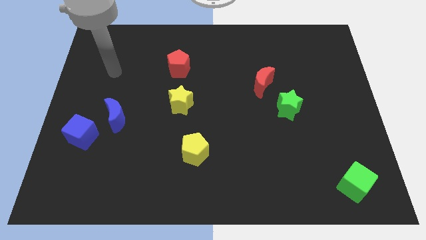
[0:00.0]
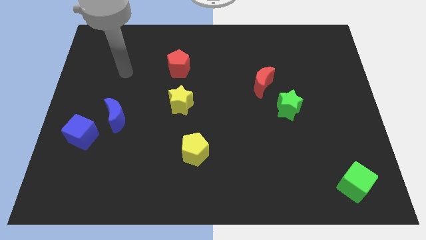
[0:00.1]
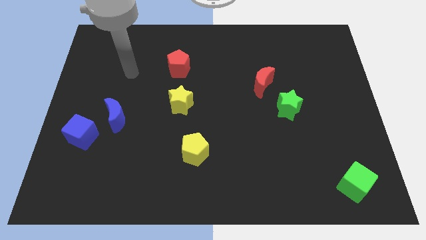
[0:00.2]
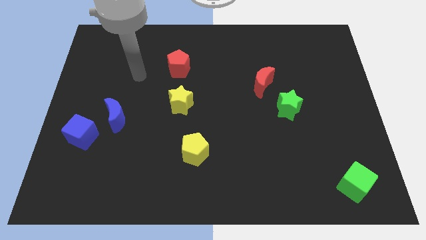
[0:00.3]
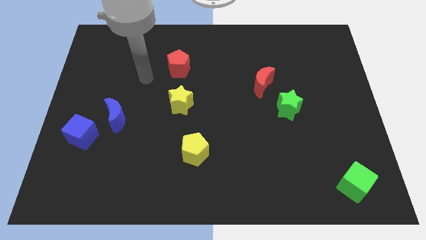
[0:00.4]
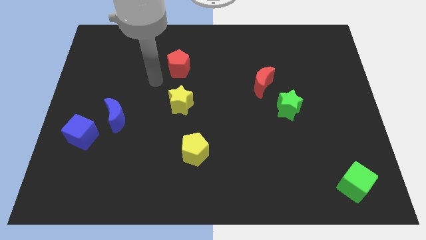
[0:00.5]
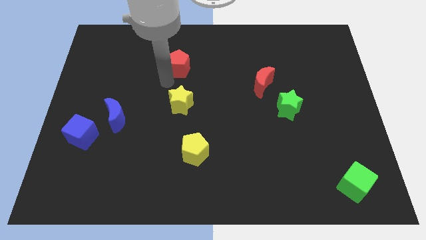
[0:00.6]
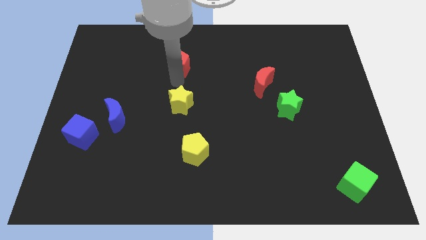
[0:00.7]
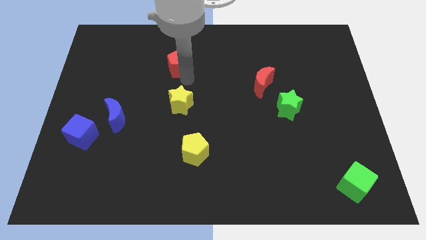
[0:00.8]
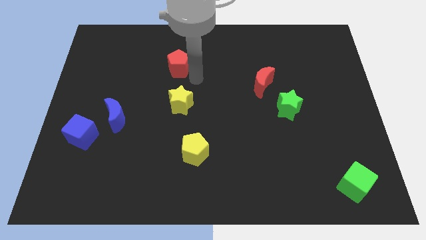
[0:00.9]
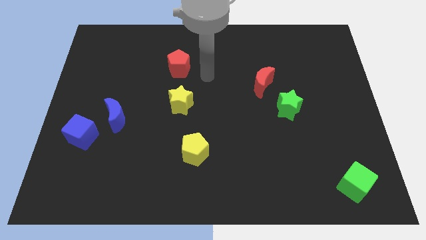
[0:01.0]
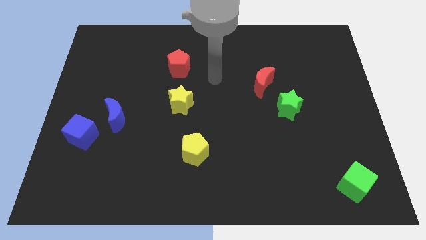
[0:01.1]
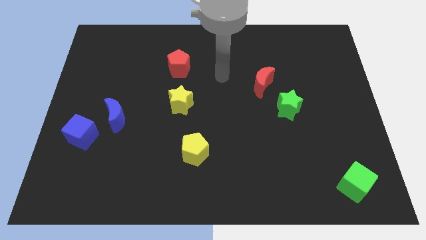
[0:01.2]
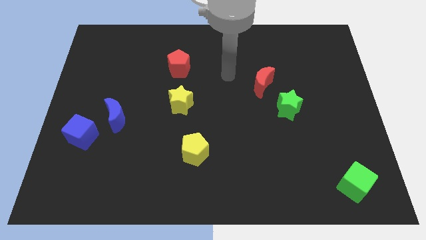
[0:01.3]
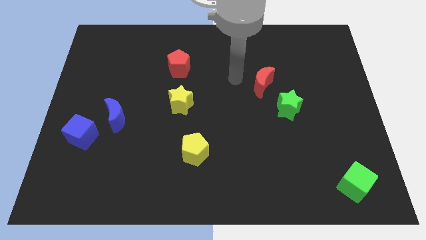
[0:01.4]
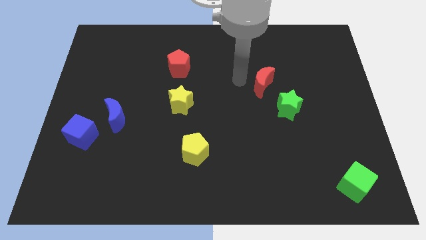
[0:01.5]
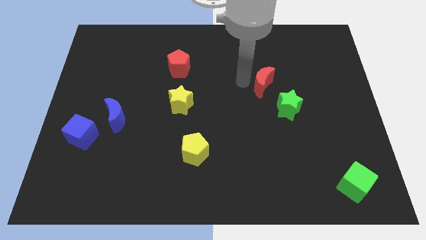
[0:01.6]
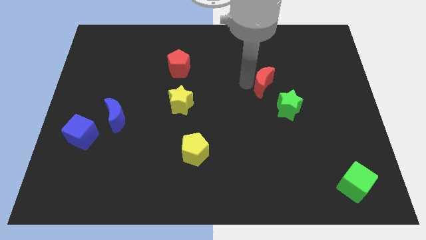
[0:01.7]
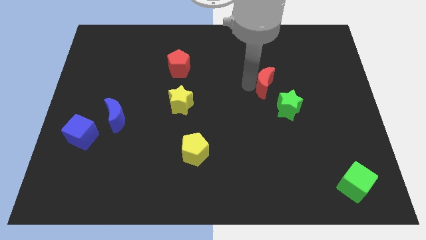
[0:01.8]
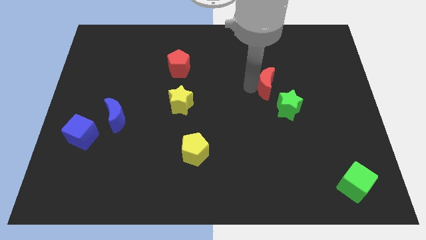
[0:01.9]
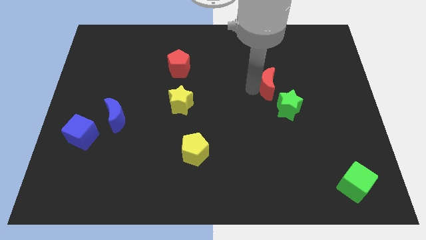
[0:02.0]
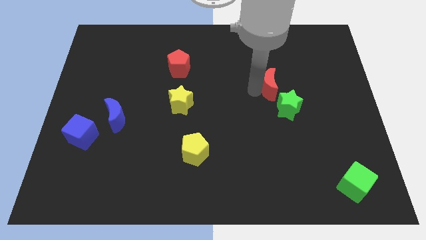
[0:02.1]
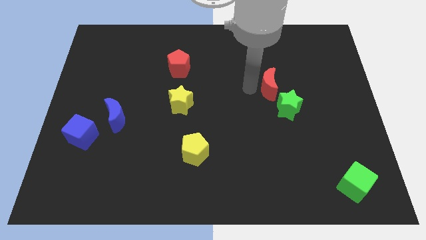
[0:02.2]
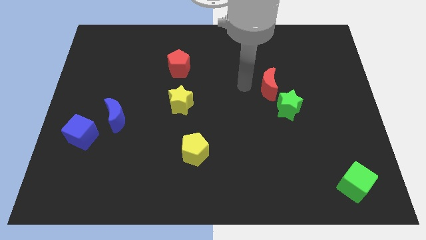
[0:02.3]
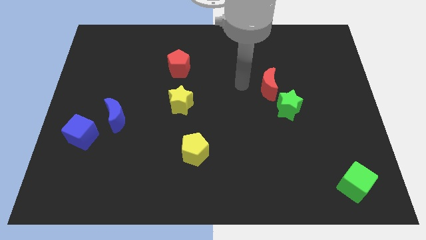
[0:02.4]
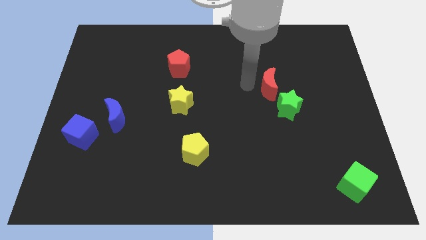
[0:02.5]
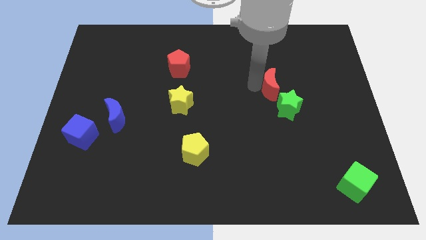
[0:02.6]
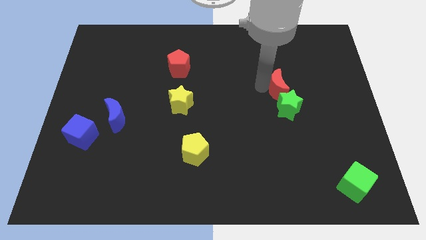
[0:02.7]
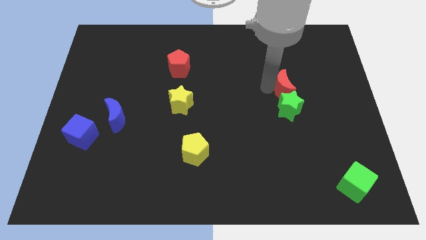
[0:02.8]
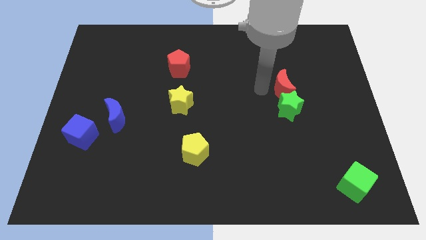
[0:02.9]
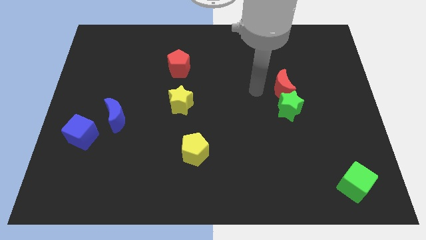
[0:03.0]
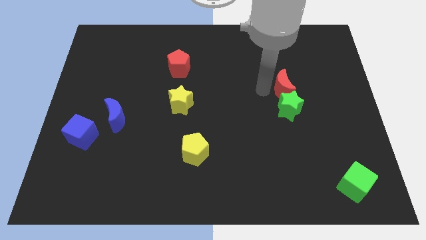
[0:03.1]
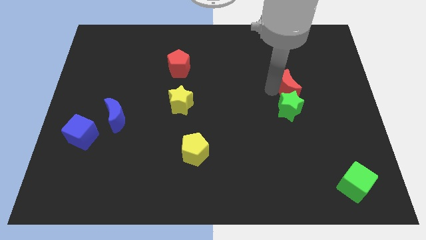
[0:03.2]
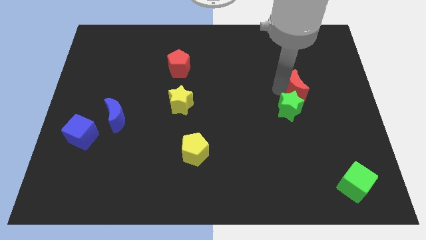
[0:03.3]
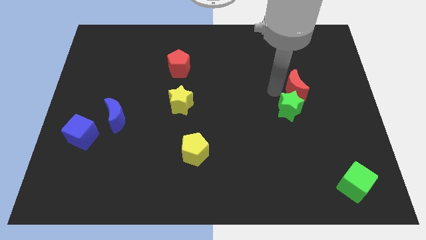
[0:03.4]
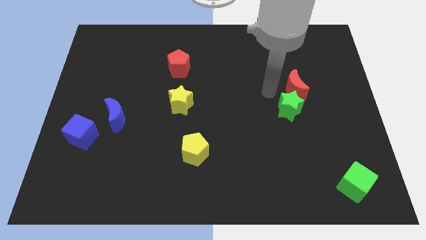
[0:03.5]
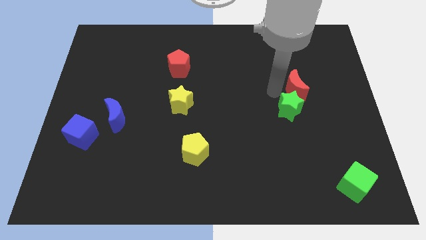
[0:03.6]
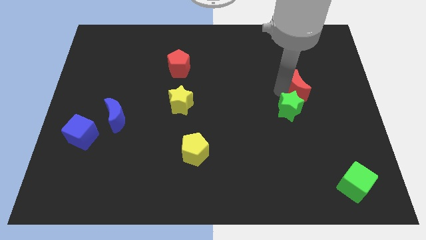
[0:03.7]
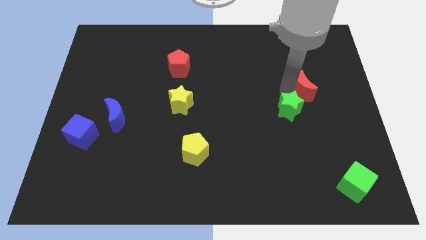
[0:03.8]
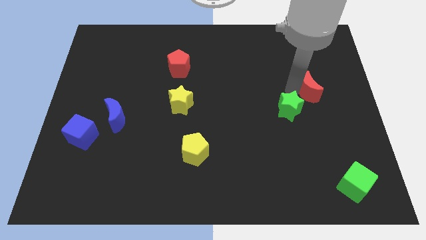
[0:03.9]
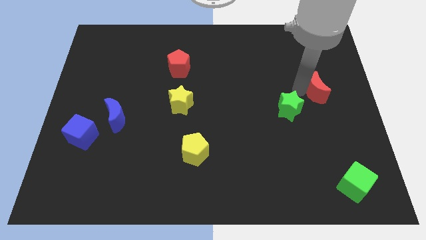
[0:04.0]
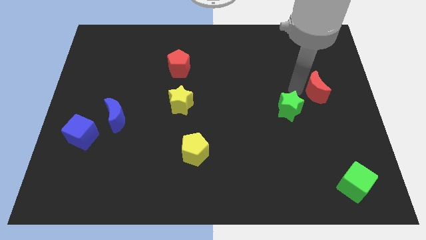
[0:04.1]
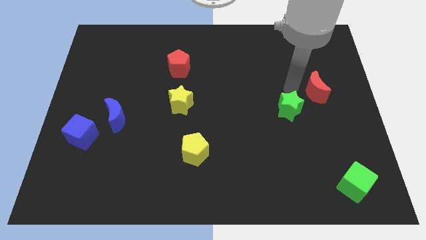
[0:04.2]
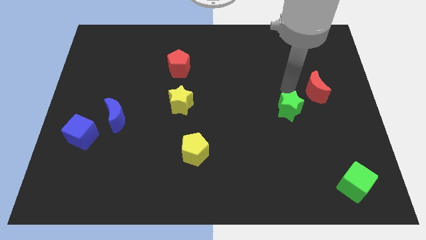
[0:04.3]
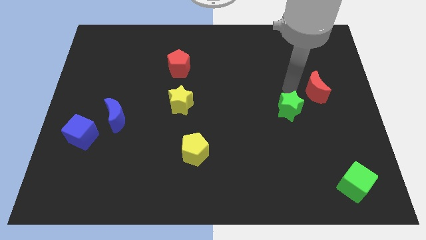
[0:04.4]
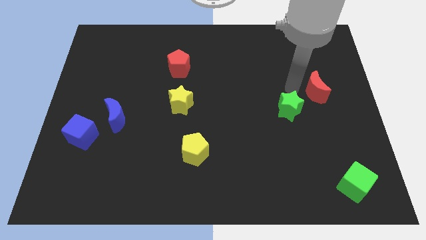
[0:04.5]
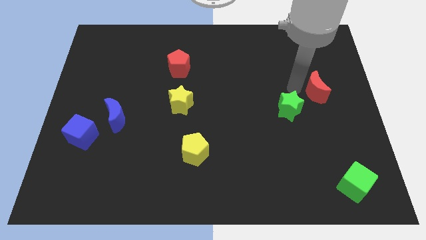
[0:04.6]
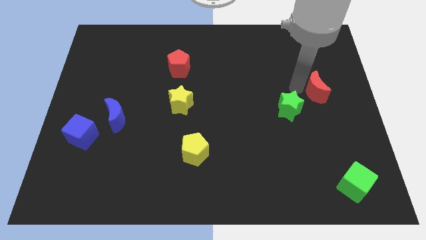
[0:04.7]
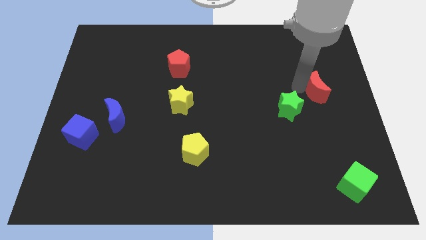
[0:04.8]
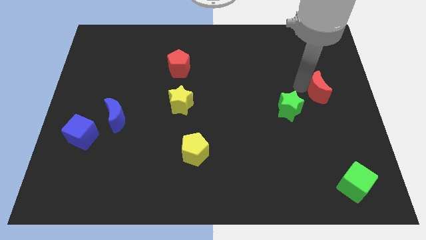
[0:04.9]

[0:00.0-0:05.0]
push the red moon to the right side of the board

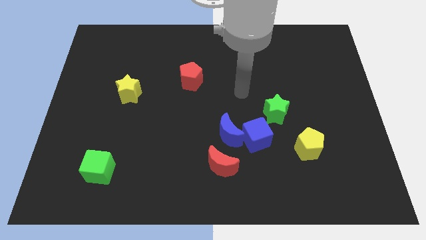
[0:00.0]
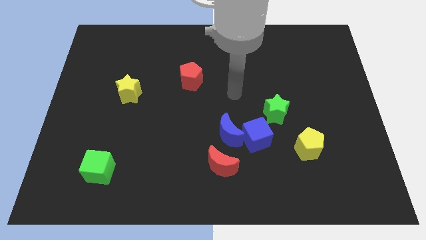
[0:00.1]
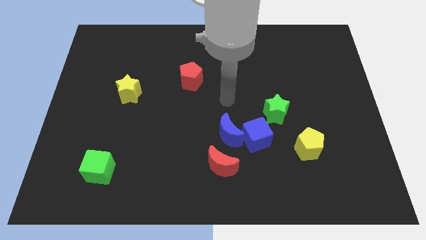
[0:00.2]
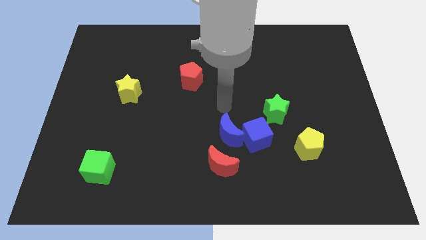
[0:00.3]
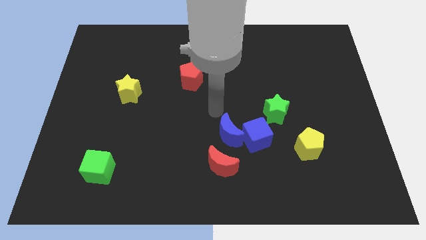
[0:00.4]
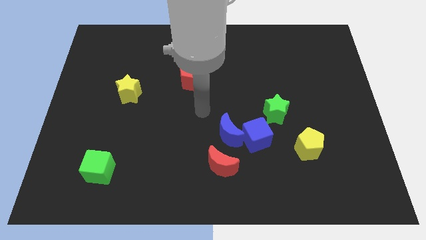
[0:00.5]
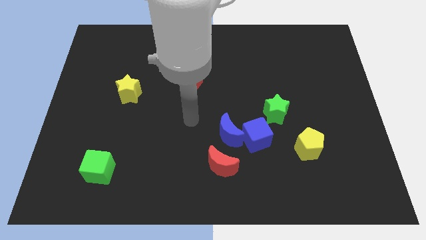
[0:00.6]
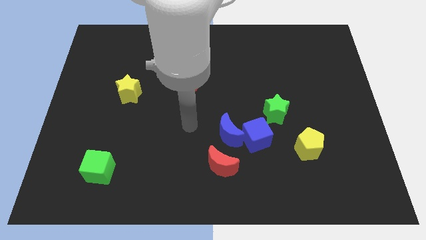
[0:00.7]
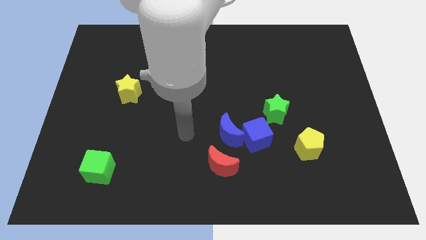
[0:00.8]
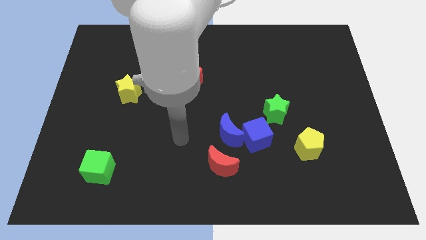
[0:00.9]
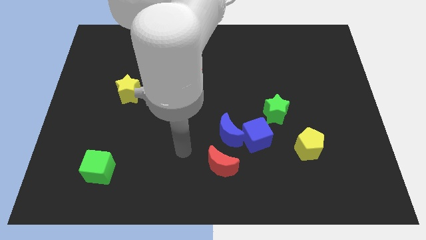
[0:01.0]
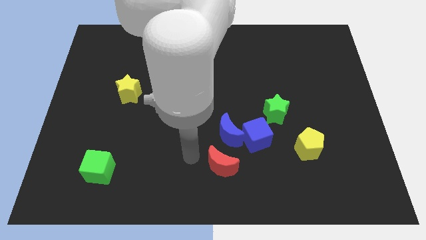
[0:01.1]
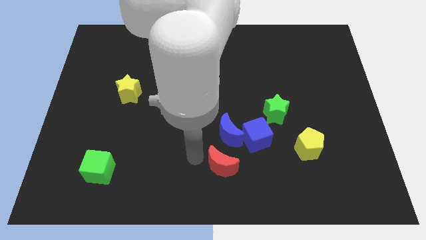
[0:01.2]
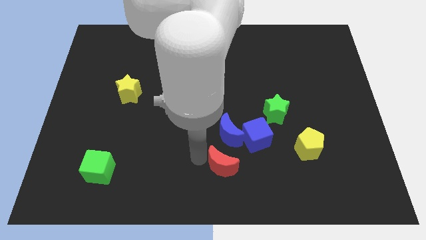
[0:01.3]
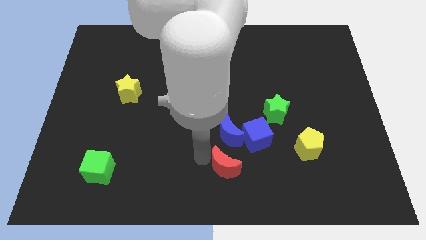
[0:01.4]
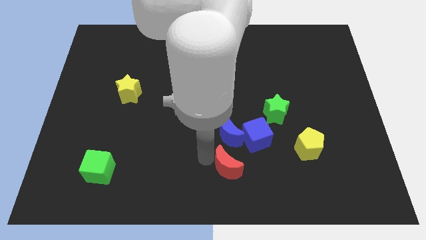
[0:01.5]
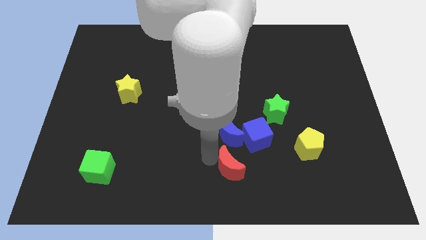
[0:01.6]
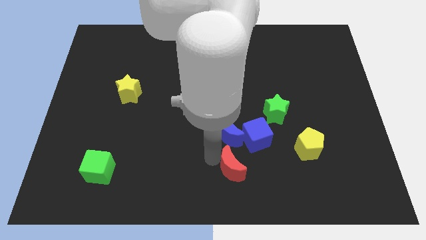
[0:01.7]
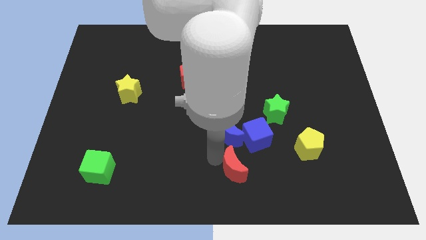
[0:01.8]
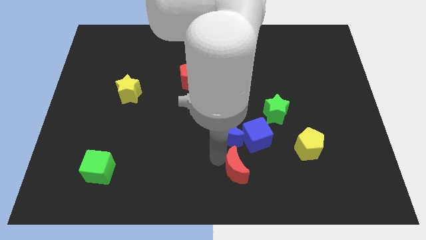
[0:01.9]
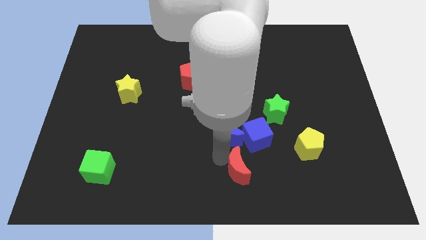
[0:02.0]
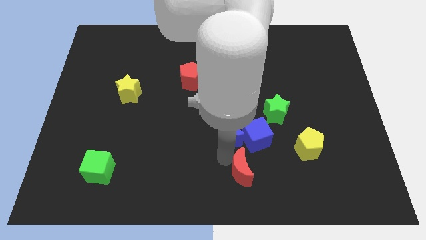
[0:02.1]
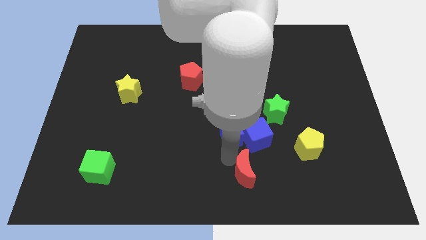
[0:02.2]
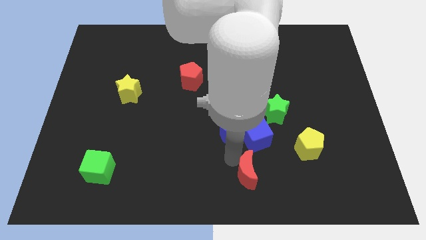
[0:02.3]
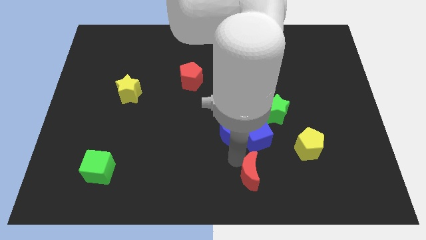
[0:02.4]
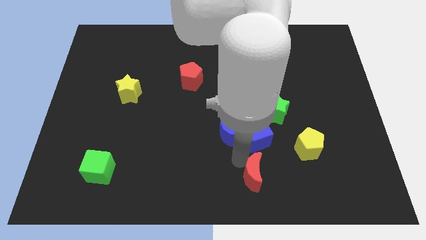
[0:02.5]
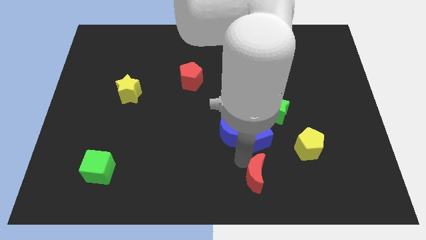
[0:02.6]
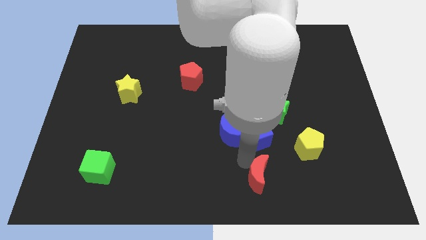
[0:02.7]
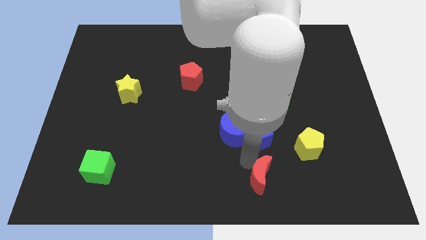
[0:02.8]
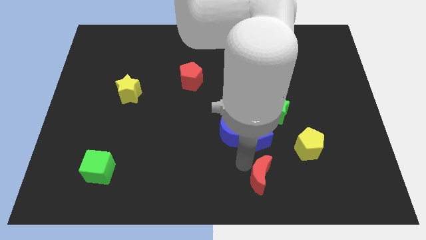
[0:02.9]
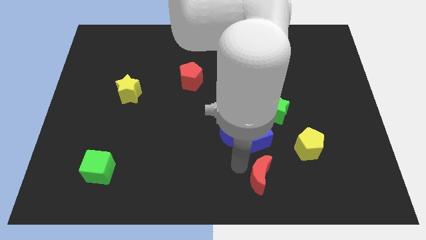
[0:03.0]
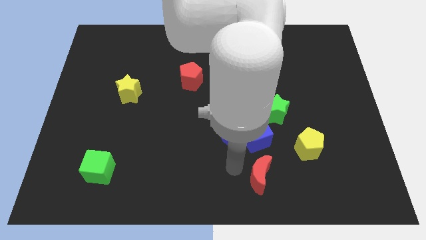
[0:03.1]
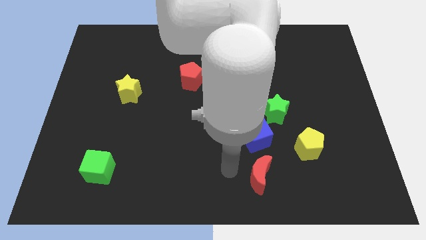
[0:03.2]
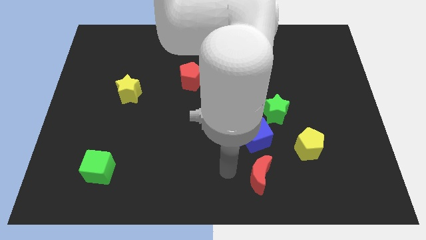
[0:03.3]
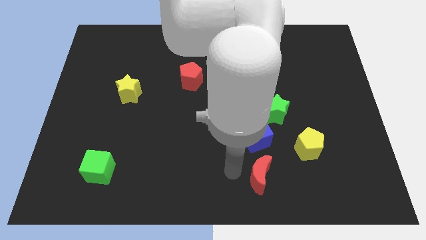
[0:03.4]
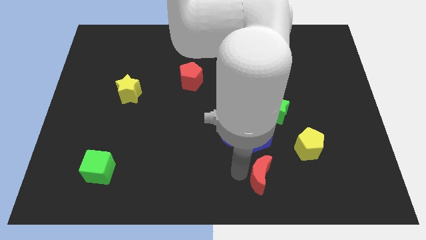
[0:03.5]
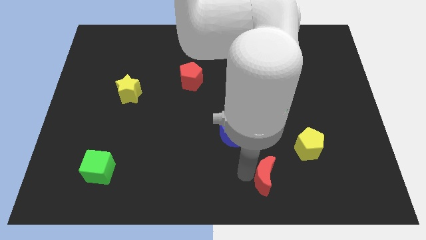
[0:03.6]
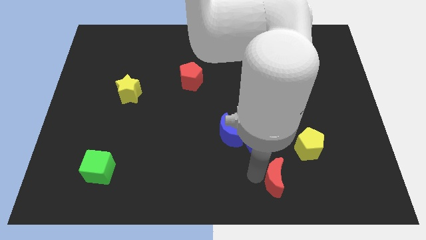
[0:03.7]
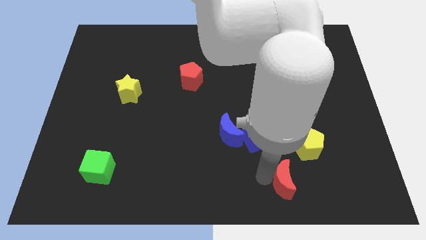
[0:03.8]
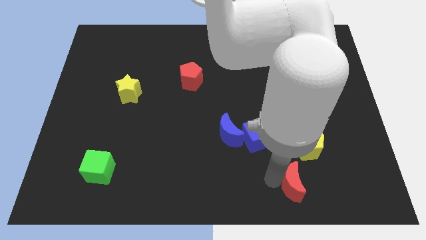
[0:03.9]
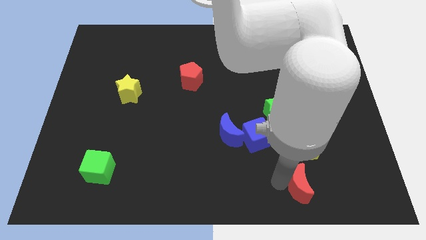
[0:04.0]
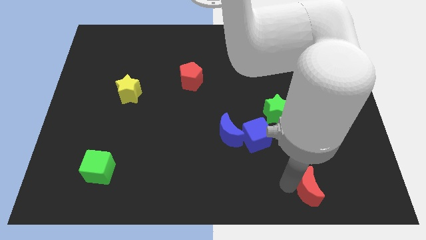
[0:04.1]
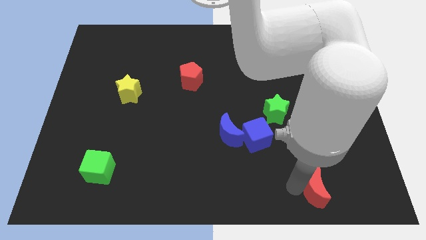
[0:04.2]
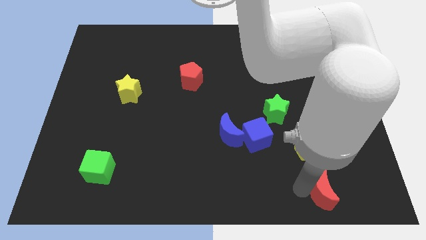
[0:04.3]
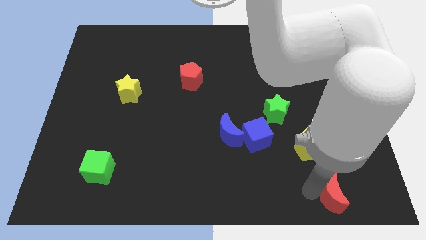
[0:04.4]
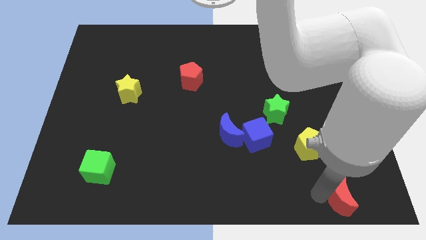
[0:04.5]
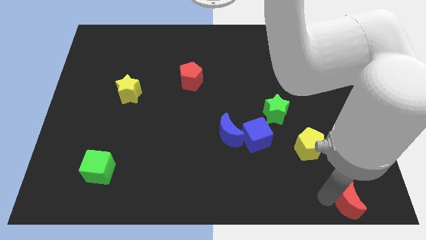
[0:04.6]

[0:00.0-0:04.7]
put the red moon to the bottom right of the board
